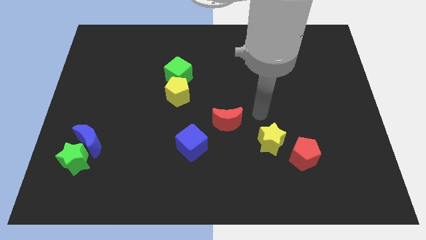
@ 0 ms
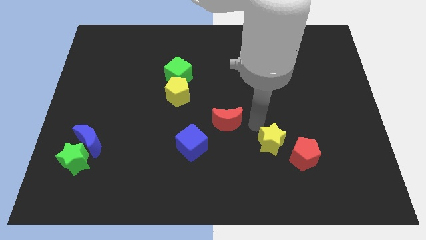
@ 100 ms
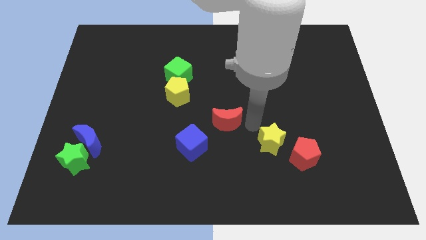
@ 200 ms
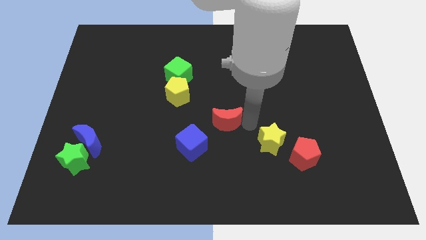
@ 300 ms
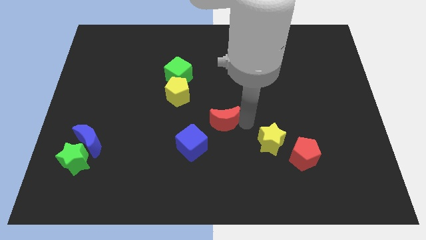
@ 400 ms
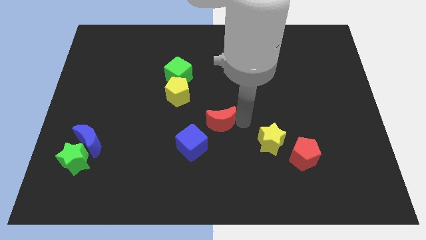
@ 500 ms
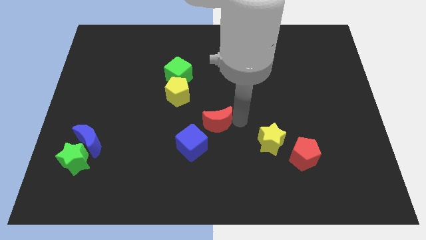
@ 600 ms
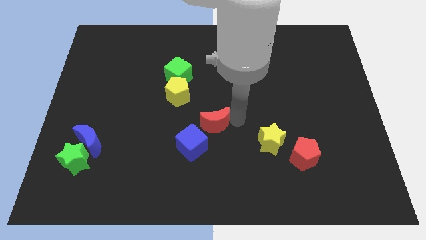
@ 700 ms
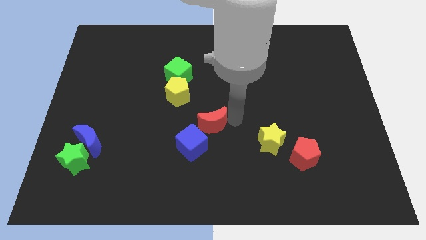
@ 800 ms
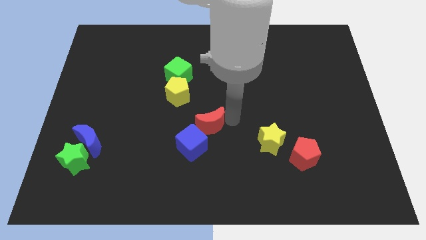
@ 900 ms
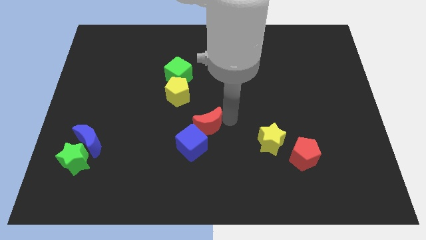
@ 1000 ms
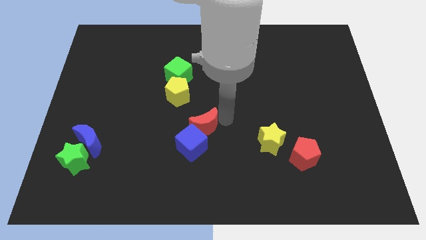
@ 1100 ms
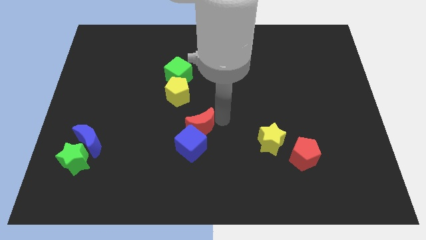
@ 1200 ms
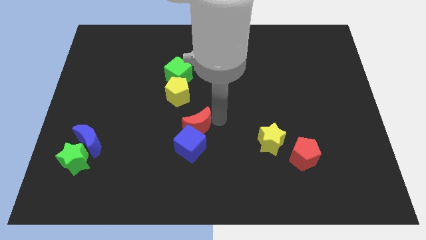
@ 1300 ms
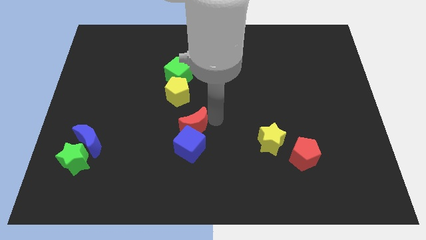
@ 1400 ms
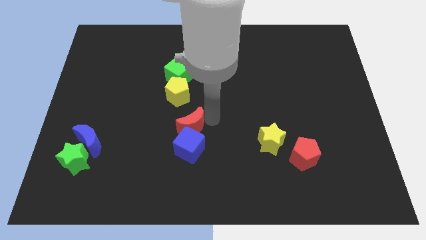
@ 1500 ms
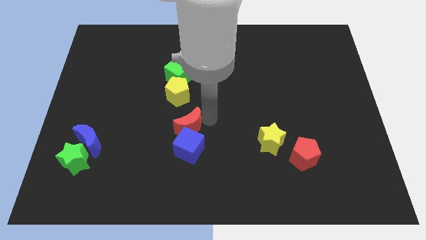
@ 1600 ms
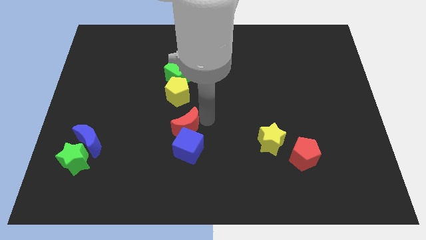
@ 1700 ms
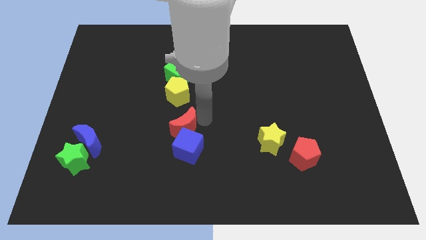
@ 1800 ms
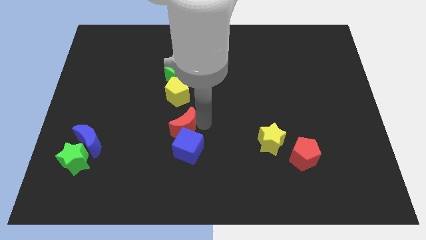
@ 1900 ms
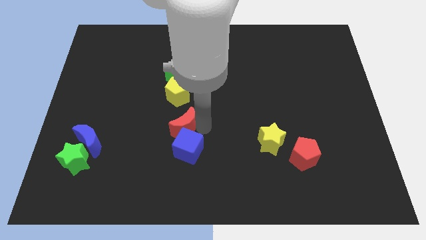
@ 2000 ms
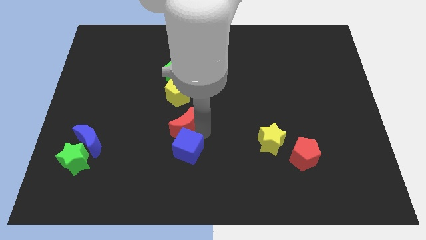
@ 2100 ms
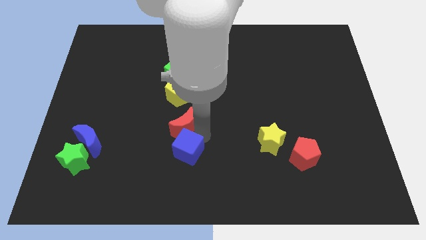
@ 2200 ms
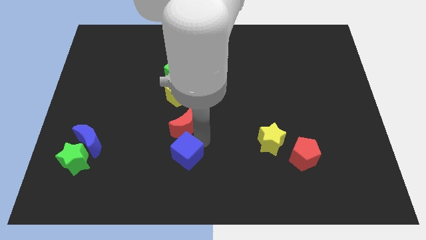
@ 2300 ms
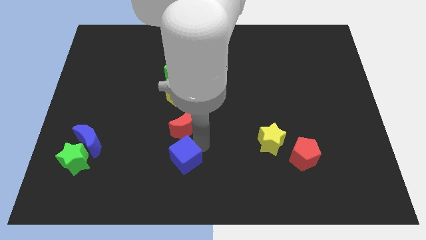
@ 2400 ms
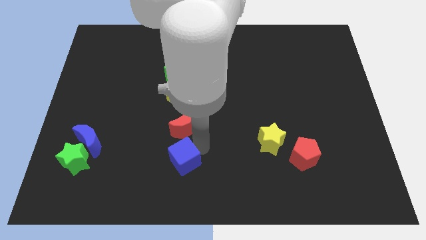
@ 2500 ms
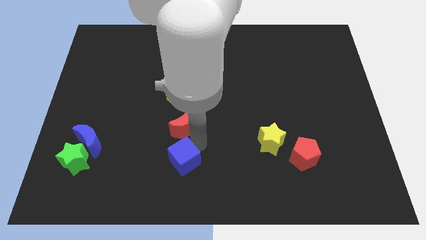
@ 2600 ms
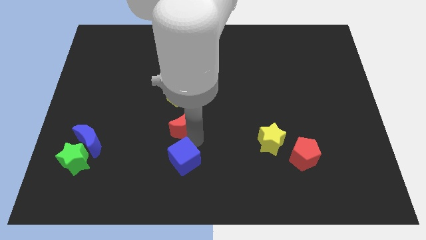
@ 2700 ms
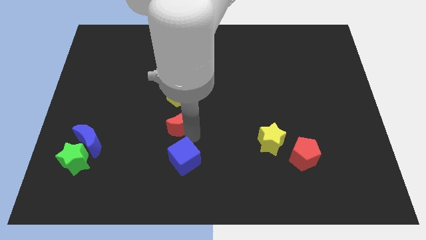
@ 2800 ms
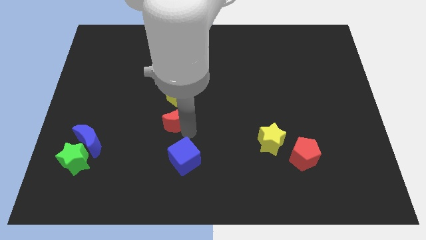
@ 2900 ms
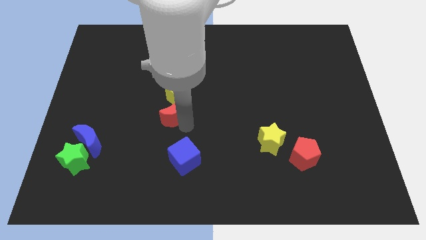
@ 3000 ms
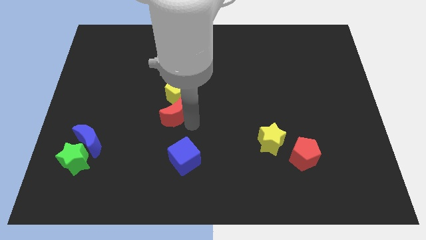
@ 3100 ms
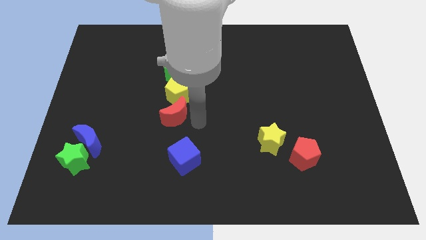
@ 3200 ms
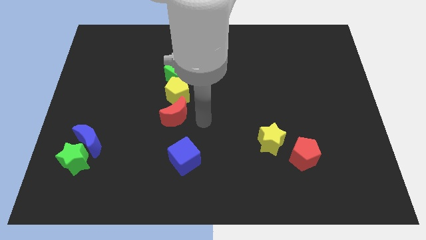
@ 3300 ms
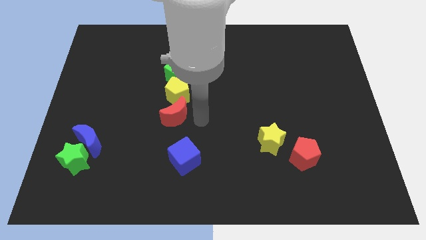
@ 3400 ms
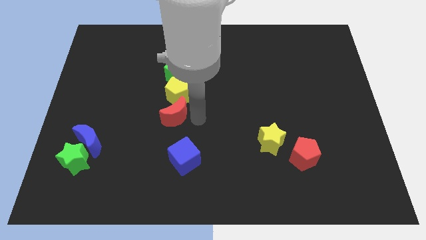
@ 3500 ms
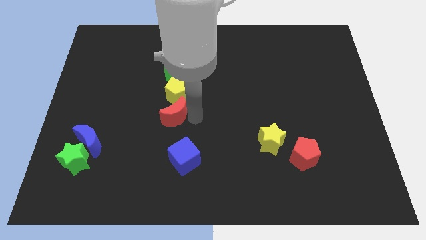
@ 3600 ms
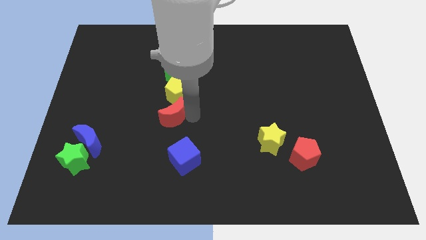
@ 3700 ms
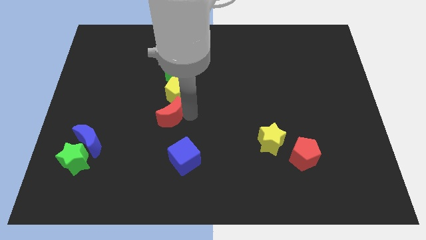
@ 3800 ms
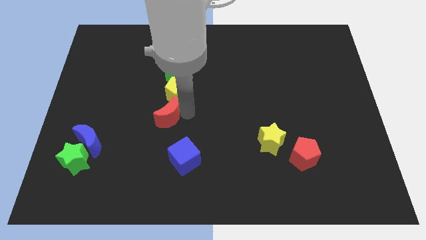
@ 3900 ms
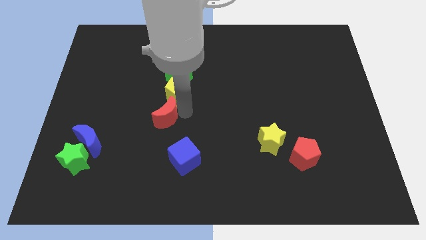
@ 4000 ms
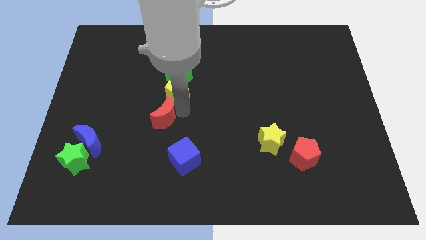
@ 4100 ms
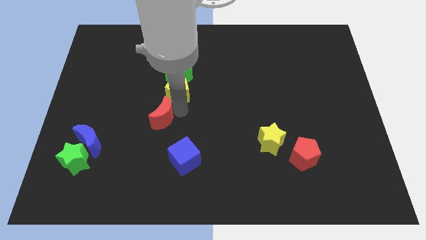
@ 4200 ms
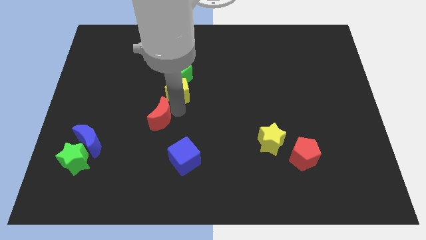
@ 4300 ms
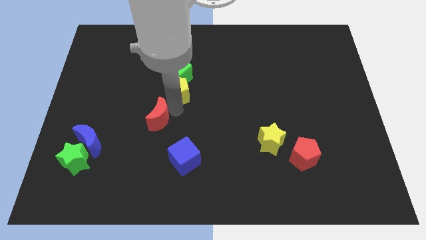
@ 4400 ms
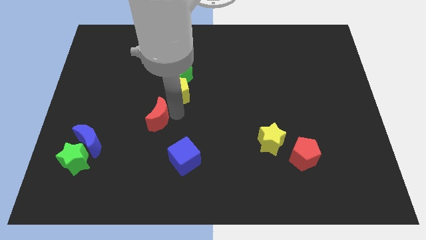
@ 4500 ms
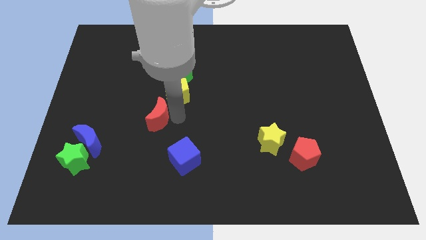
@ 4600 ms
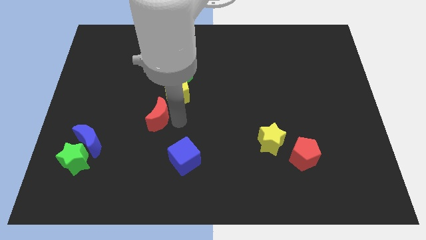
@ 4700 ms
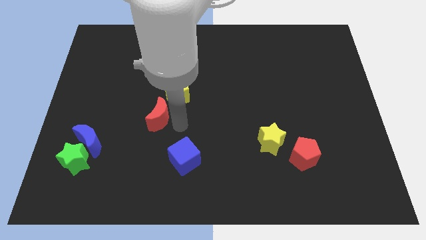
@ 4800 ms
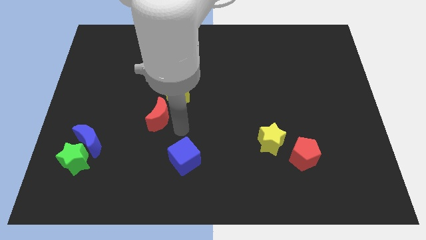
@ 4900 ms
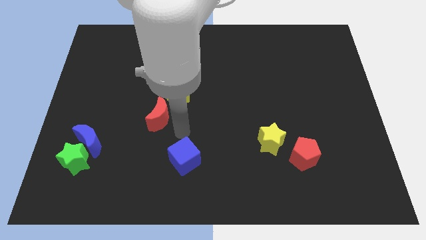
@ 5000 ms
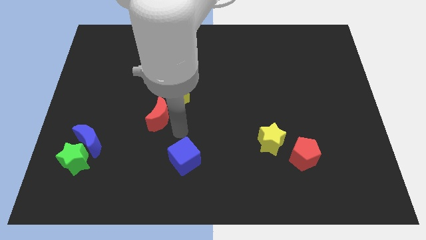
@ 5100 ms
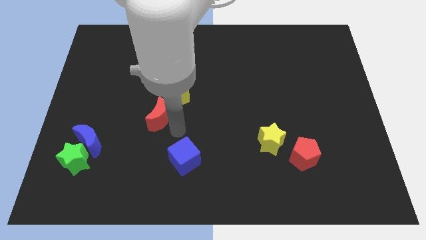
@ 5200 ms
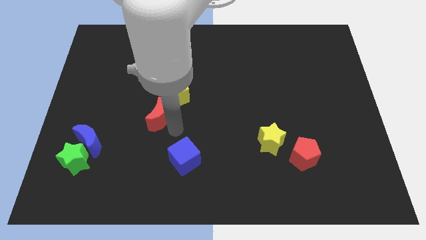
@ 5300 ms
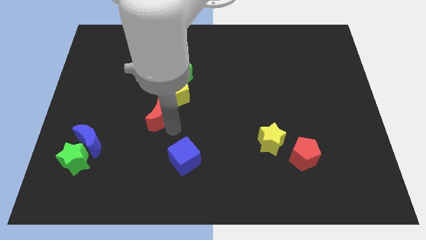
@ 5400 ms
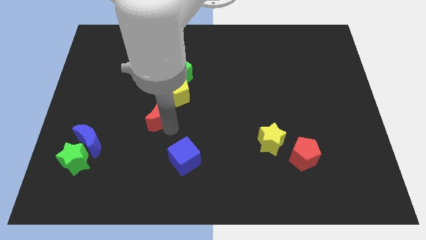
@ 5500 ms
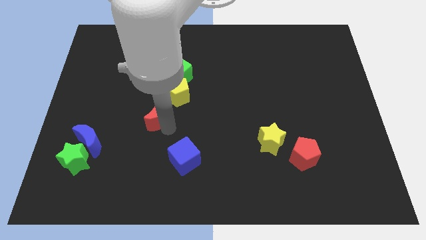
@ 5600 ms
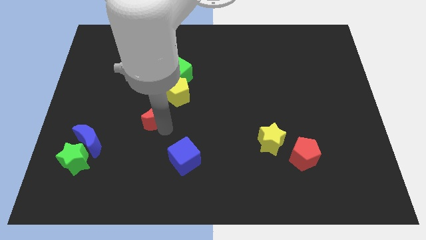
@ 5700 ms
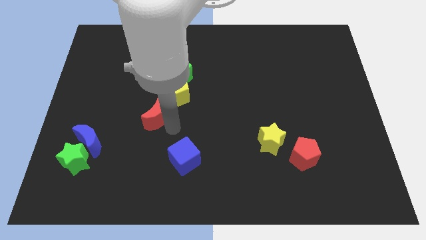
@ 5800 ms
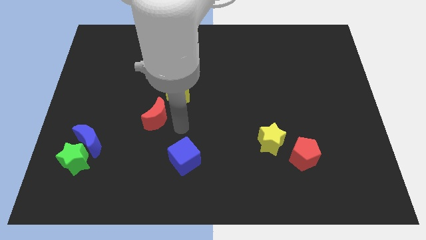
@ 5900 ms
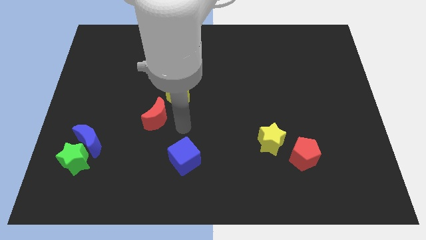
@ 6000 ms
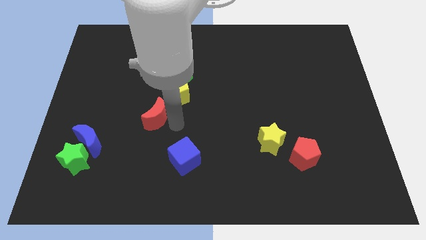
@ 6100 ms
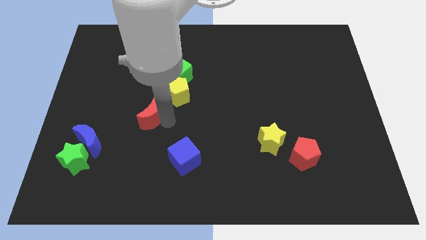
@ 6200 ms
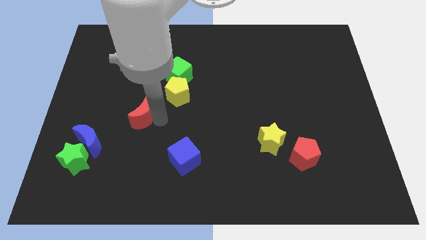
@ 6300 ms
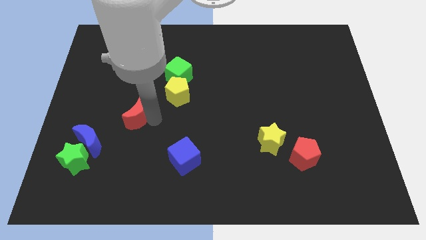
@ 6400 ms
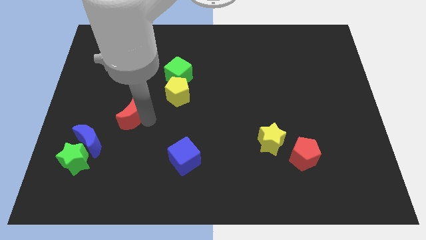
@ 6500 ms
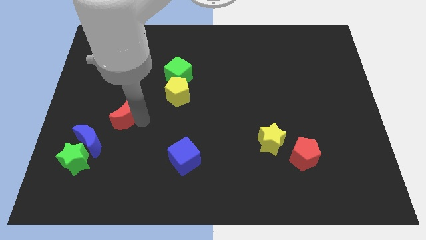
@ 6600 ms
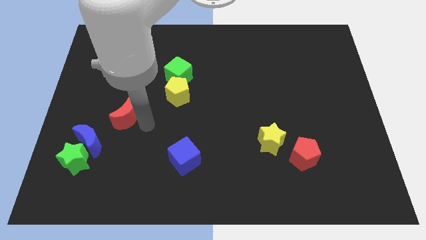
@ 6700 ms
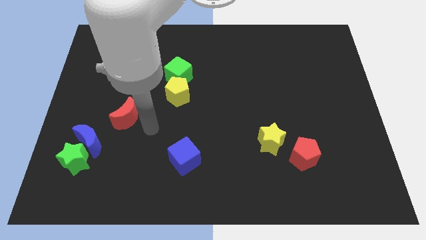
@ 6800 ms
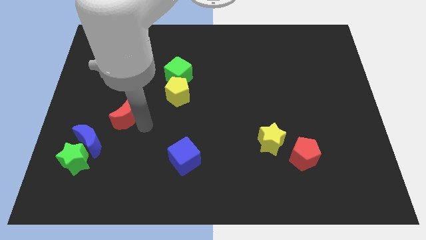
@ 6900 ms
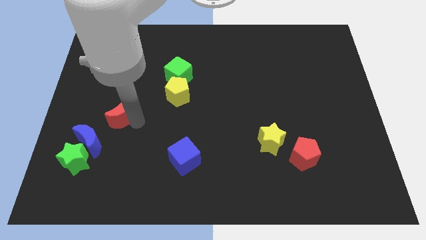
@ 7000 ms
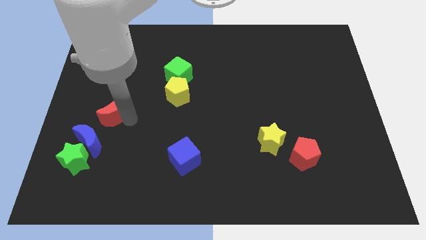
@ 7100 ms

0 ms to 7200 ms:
move the red moon to the top of the blue moon
